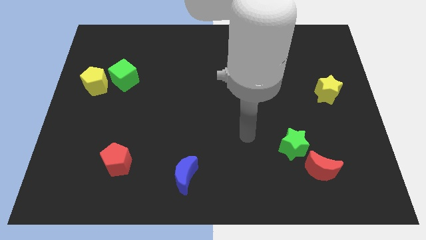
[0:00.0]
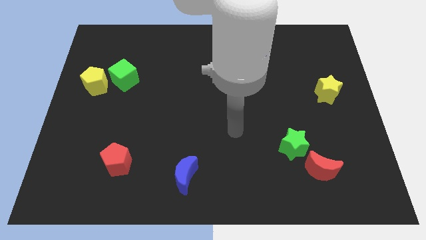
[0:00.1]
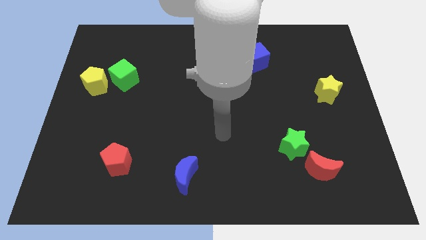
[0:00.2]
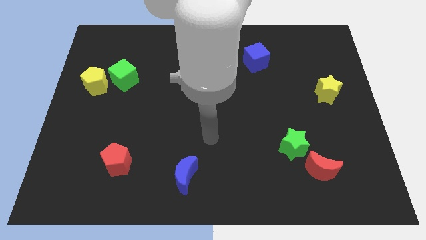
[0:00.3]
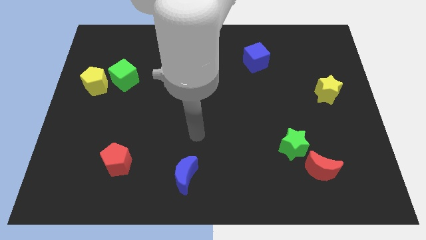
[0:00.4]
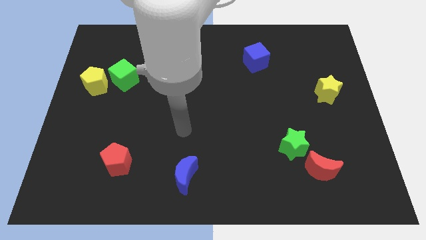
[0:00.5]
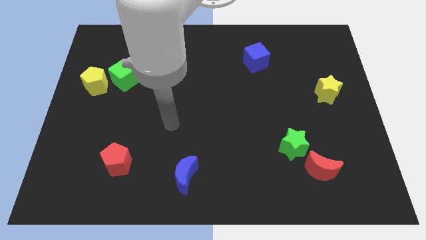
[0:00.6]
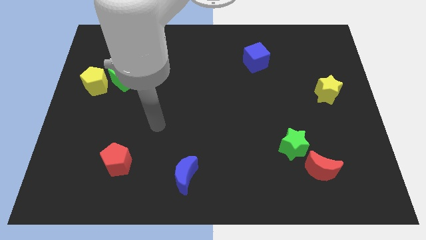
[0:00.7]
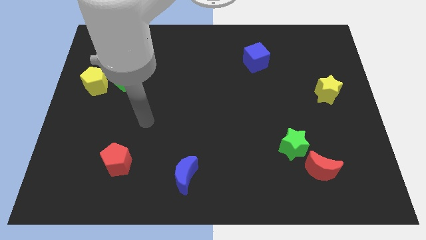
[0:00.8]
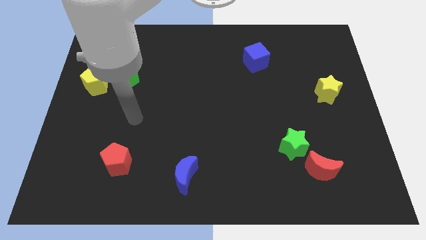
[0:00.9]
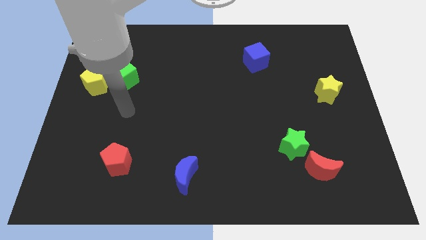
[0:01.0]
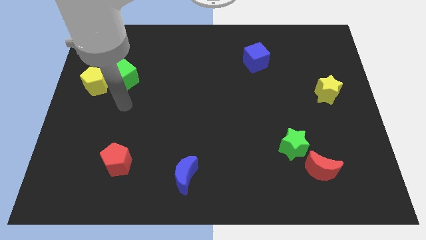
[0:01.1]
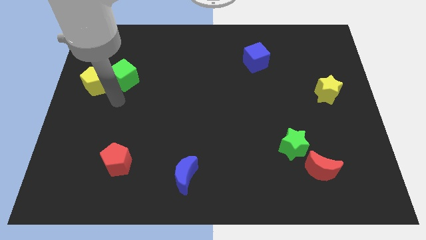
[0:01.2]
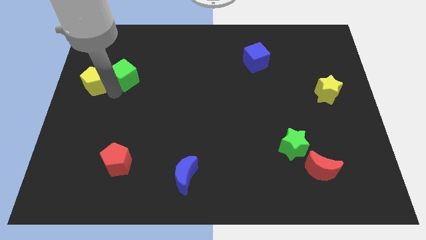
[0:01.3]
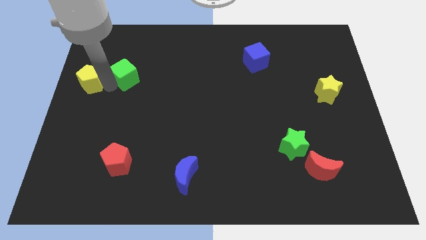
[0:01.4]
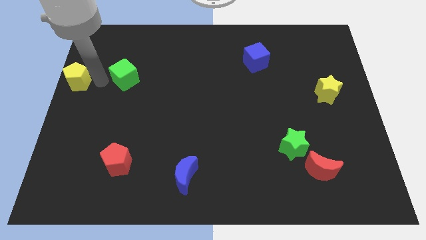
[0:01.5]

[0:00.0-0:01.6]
separate the green cube from the yellow pentagon

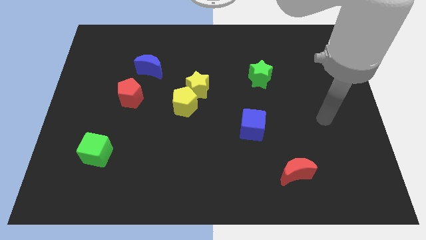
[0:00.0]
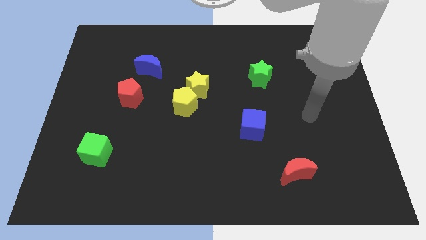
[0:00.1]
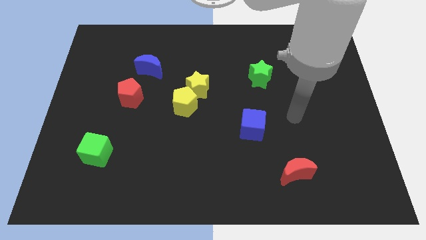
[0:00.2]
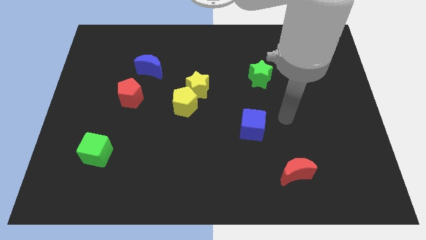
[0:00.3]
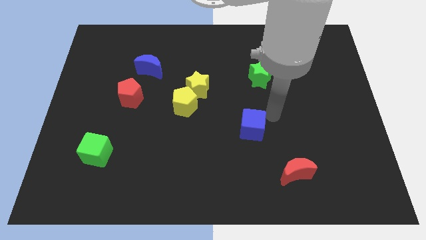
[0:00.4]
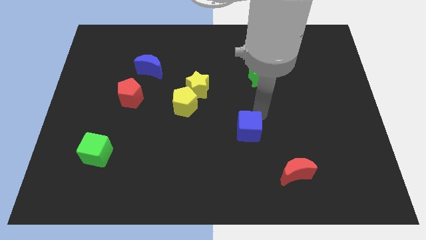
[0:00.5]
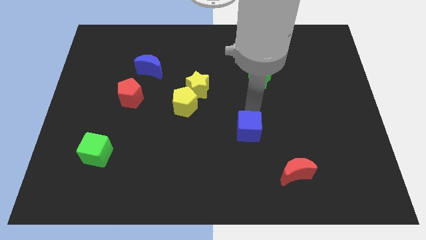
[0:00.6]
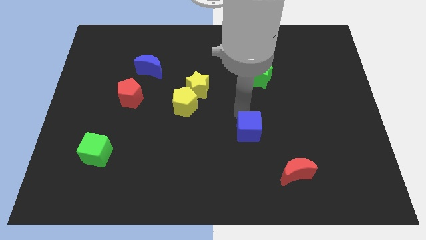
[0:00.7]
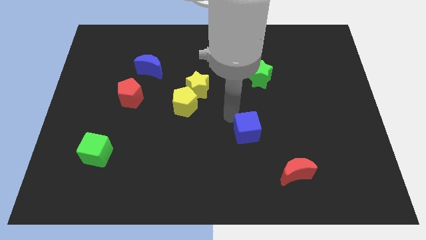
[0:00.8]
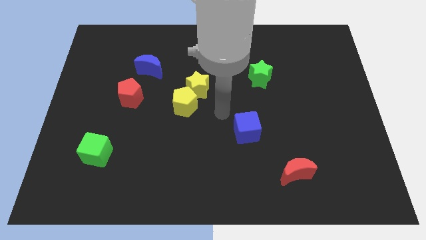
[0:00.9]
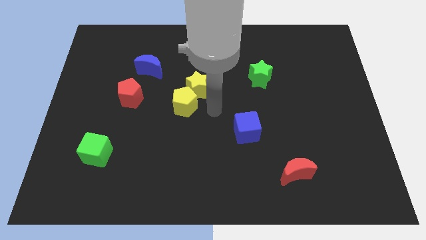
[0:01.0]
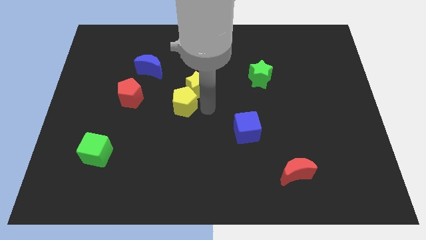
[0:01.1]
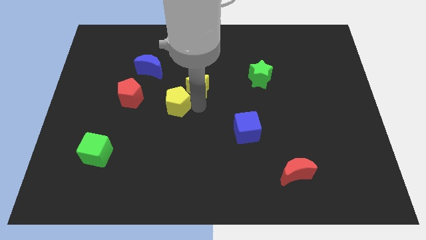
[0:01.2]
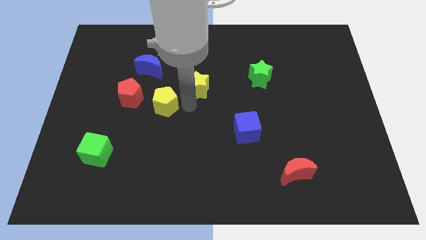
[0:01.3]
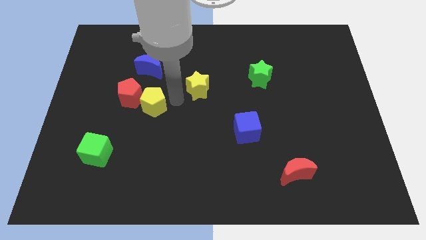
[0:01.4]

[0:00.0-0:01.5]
pull the yellow star apart from the yellow pentagon

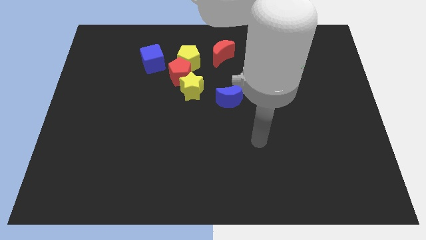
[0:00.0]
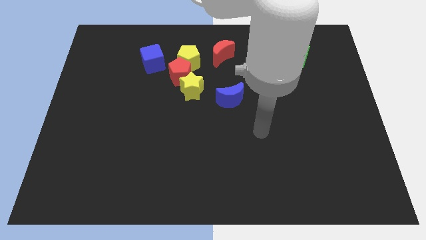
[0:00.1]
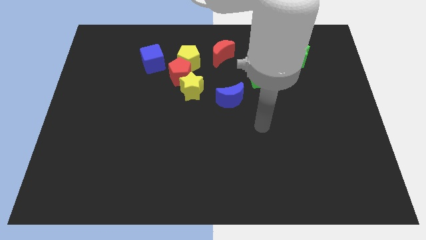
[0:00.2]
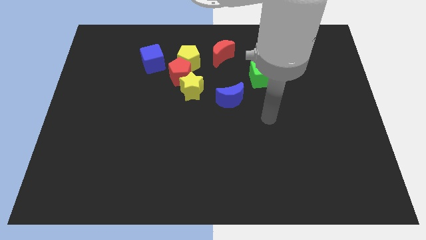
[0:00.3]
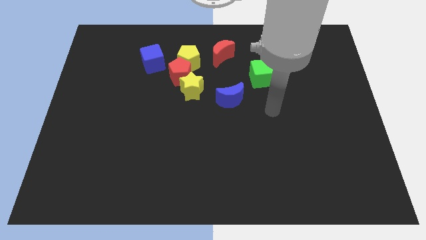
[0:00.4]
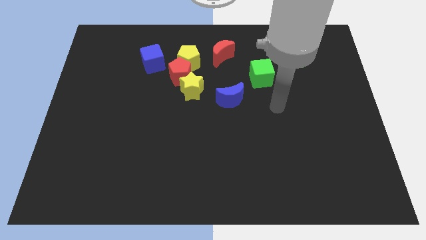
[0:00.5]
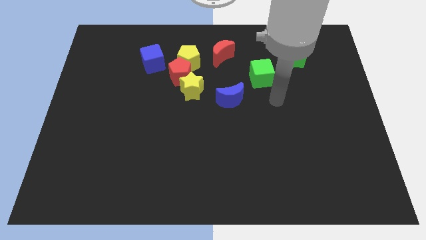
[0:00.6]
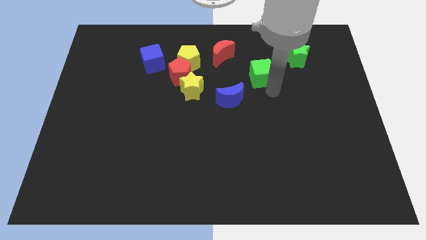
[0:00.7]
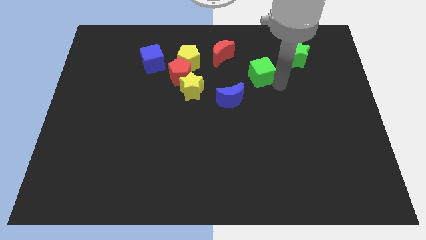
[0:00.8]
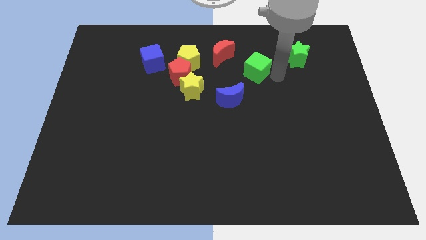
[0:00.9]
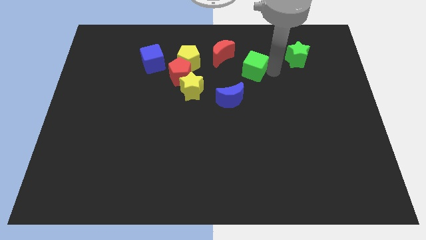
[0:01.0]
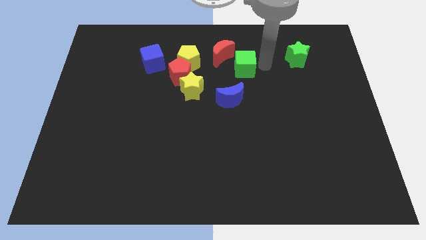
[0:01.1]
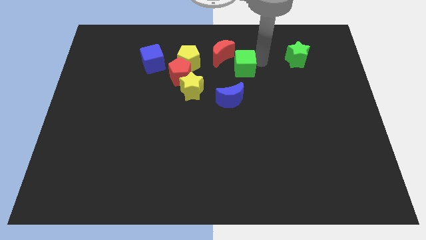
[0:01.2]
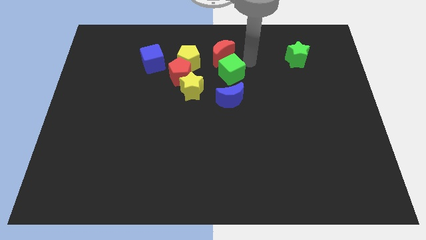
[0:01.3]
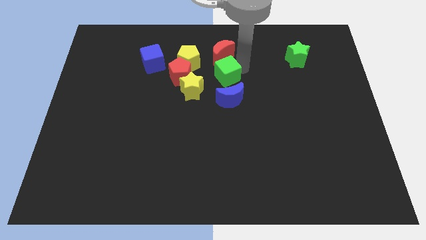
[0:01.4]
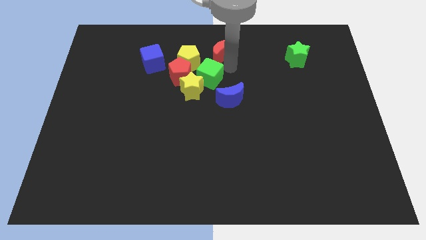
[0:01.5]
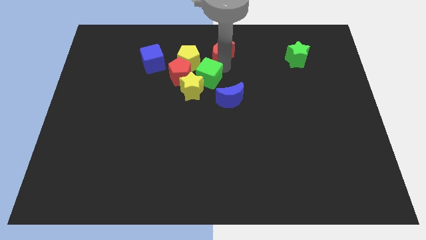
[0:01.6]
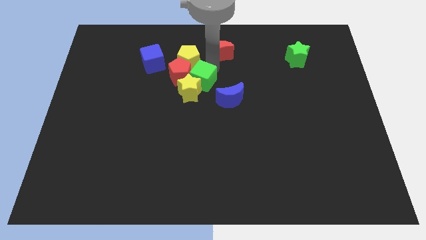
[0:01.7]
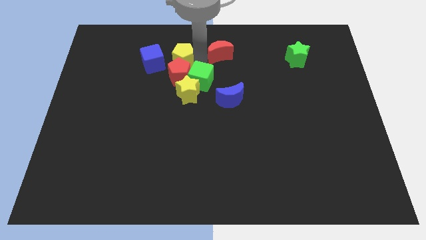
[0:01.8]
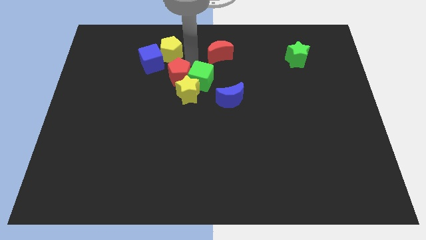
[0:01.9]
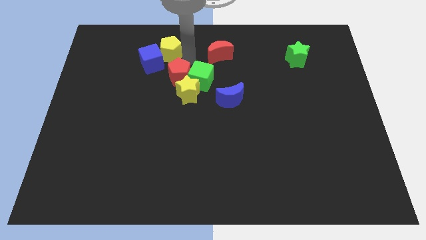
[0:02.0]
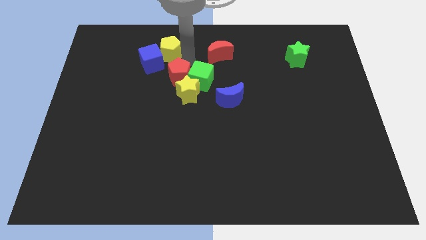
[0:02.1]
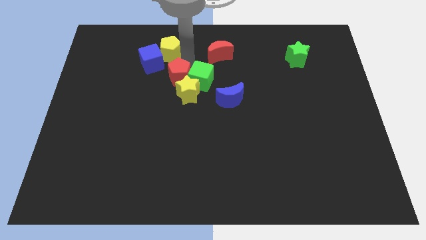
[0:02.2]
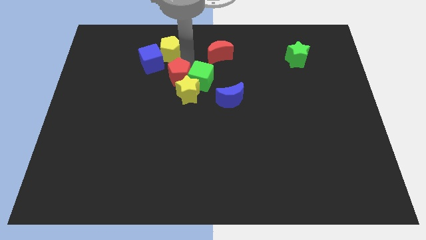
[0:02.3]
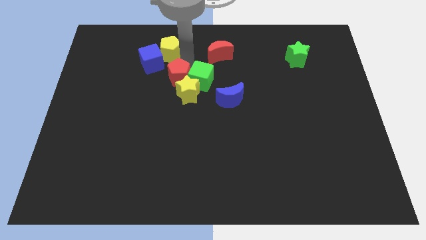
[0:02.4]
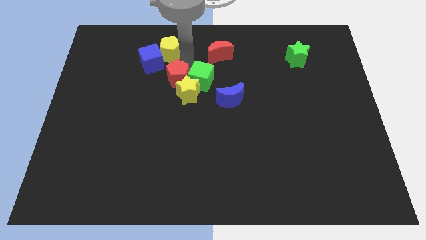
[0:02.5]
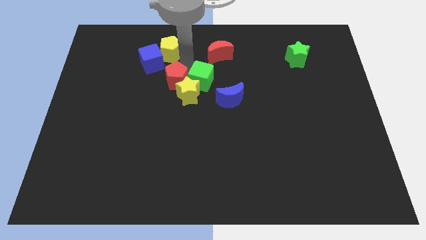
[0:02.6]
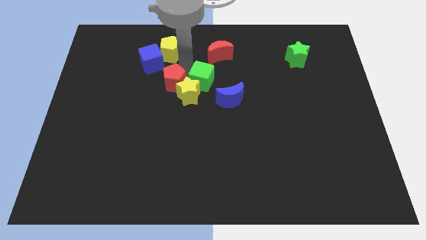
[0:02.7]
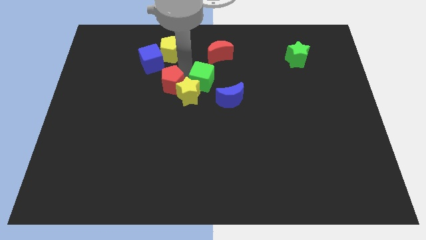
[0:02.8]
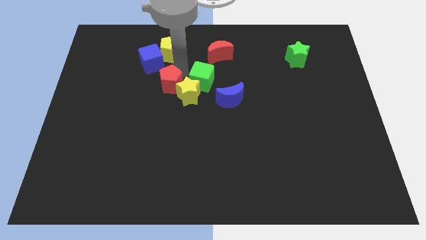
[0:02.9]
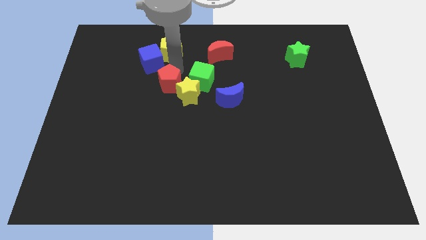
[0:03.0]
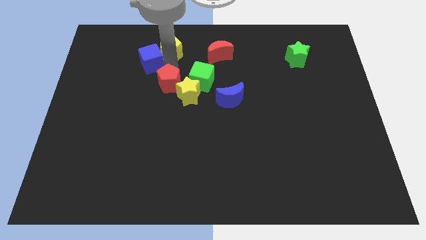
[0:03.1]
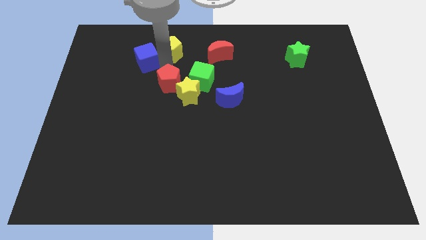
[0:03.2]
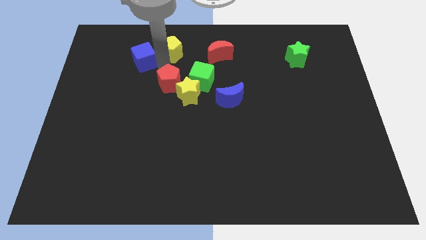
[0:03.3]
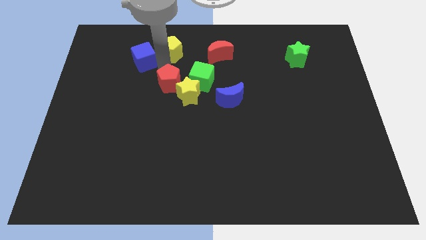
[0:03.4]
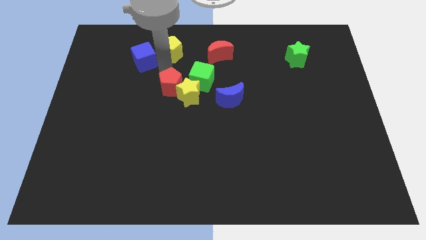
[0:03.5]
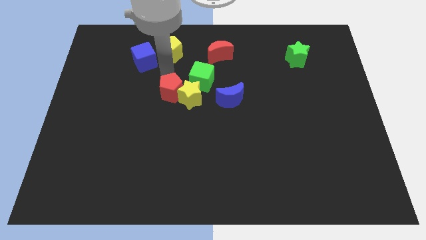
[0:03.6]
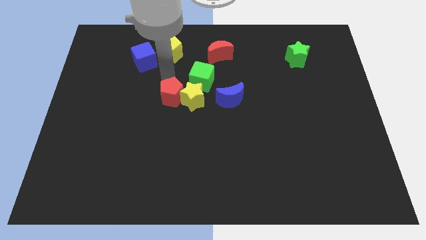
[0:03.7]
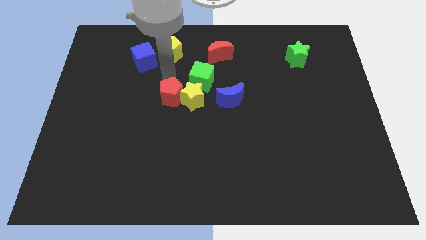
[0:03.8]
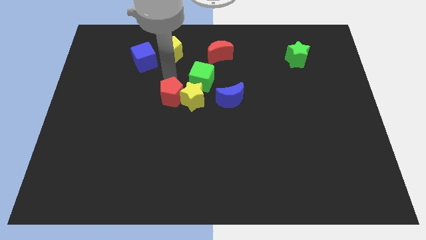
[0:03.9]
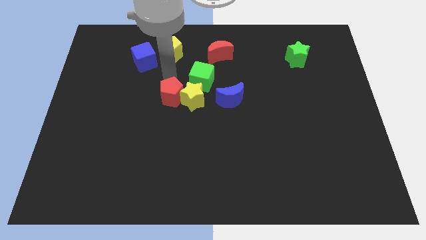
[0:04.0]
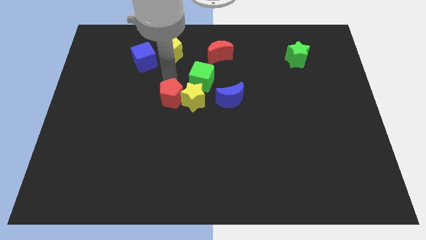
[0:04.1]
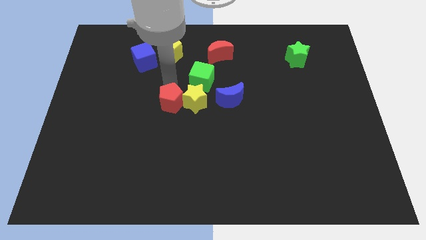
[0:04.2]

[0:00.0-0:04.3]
move the red pentagon away from the yellow star, yellow pentagon, and blue cube

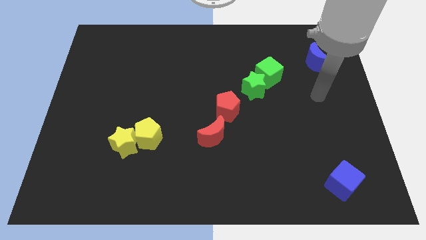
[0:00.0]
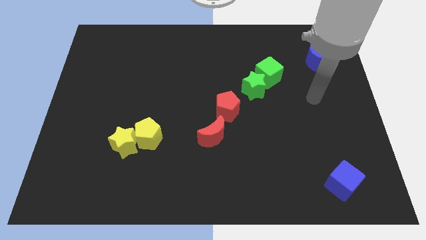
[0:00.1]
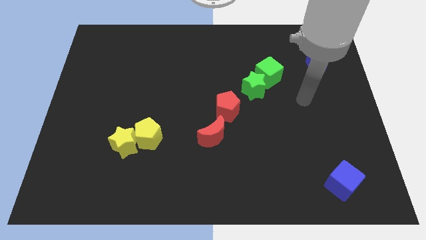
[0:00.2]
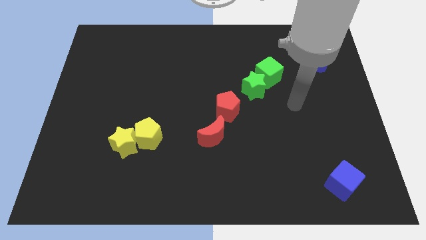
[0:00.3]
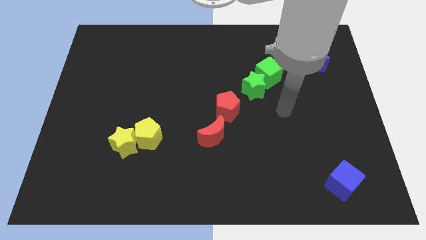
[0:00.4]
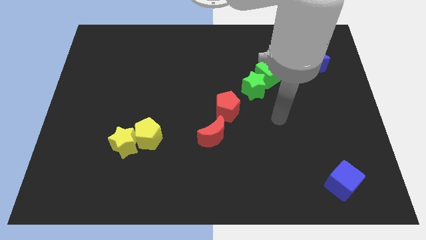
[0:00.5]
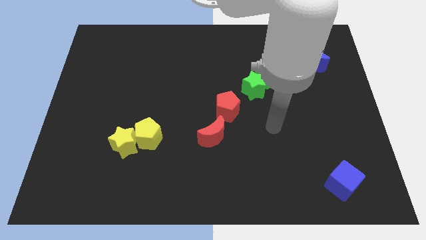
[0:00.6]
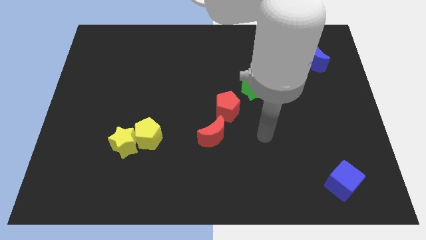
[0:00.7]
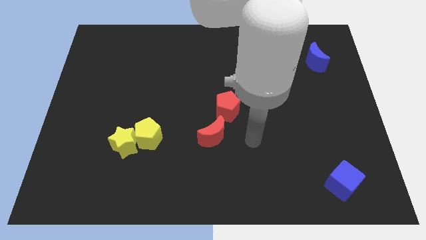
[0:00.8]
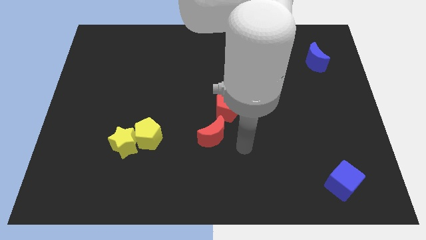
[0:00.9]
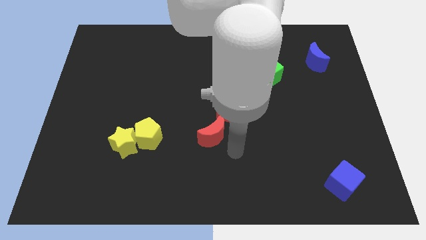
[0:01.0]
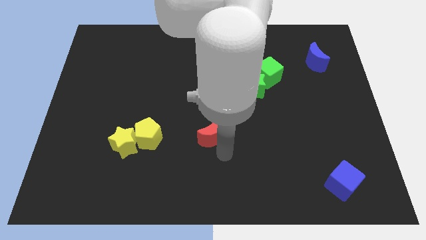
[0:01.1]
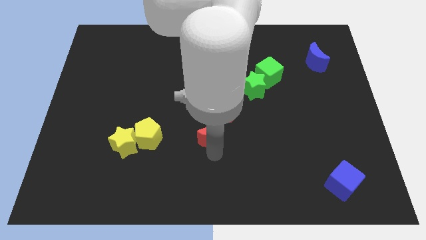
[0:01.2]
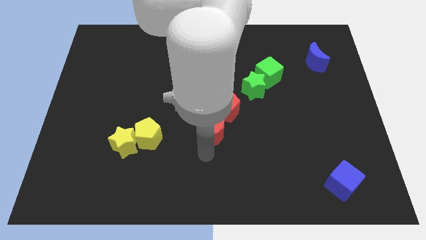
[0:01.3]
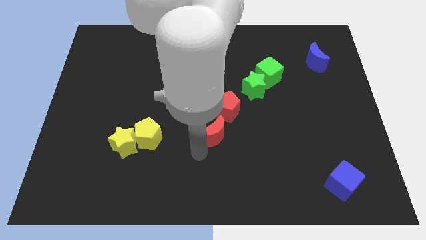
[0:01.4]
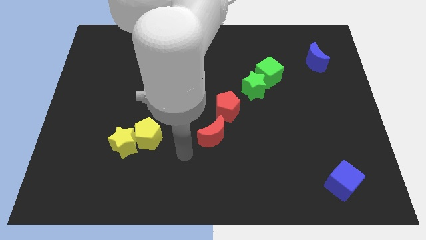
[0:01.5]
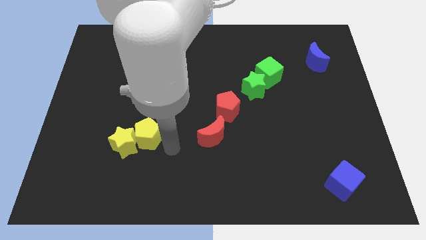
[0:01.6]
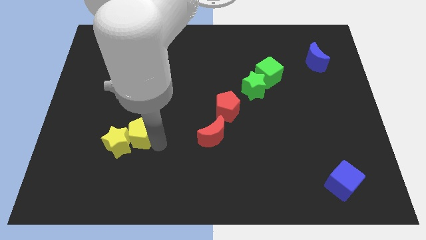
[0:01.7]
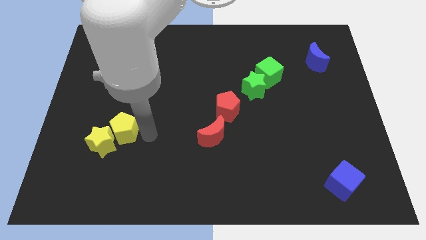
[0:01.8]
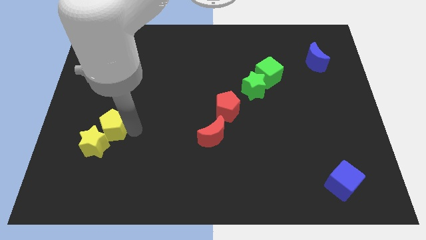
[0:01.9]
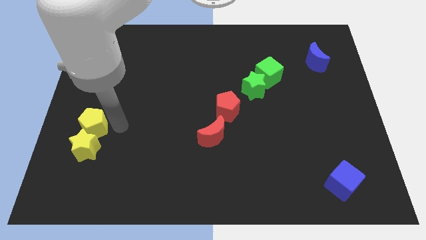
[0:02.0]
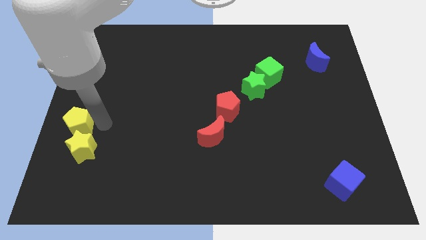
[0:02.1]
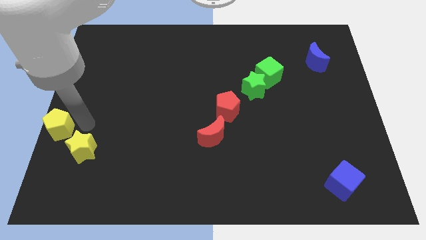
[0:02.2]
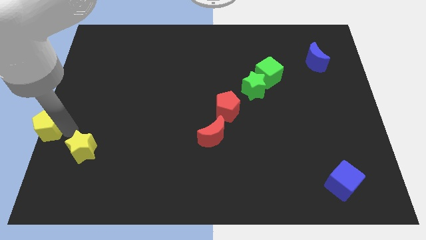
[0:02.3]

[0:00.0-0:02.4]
separate the yellow star from the yellow pentagon
